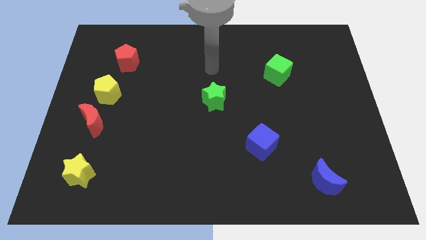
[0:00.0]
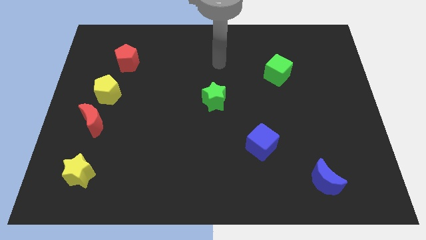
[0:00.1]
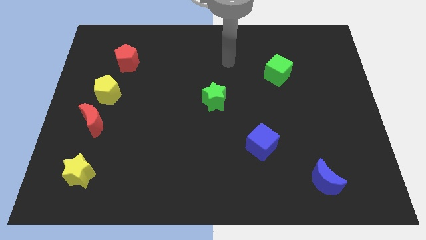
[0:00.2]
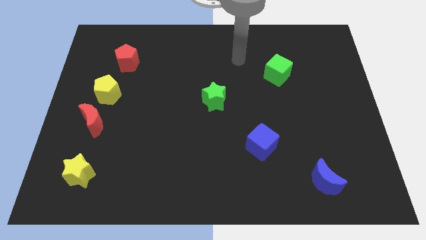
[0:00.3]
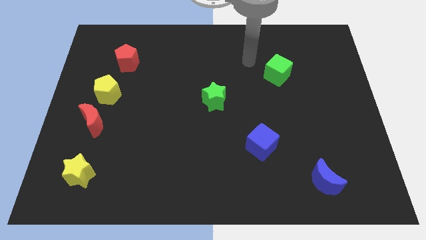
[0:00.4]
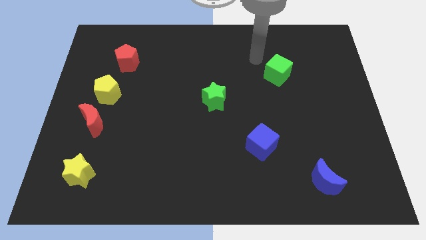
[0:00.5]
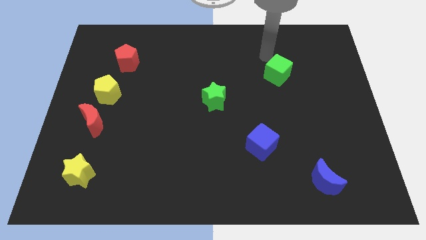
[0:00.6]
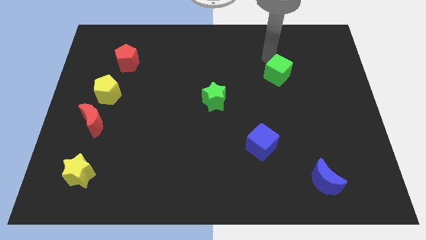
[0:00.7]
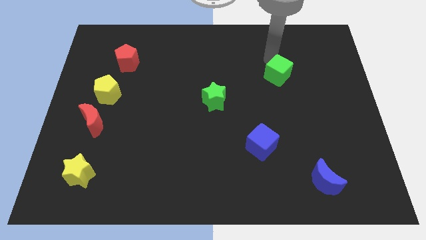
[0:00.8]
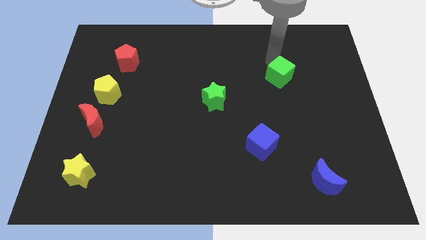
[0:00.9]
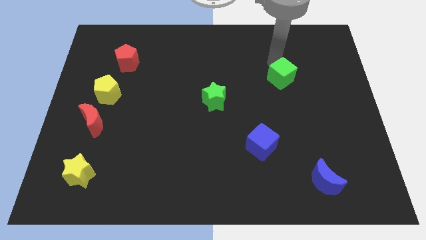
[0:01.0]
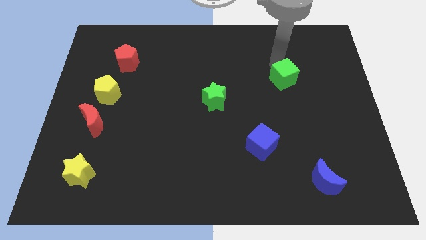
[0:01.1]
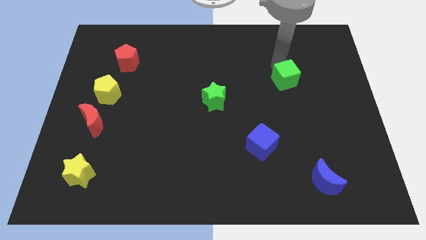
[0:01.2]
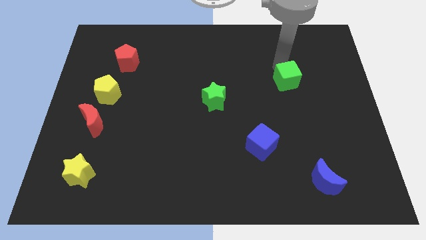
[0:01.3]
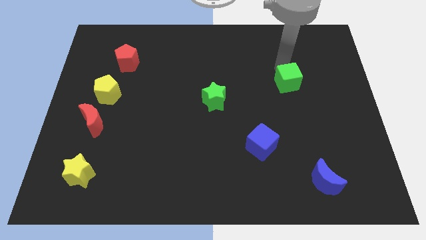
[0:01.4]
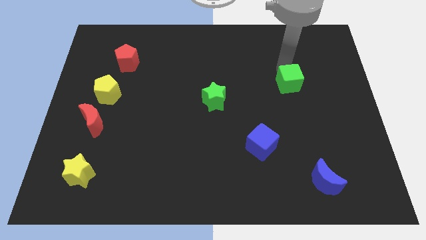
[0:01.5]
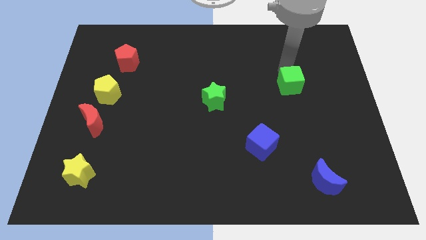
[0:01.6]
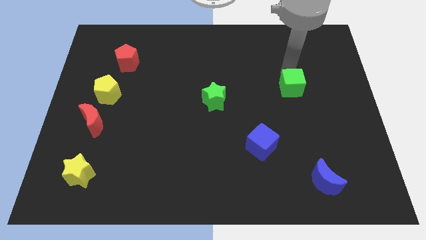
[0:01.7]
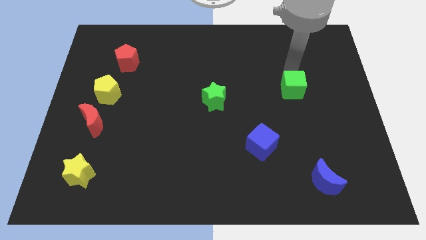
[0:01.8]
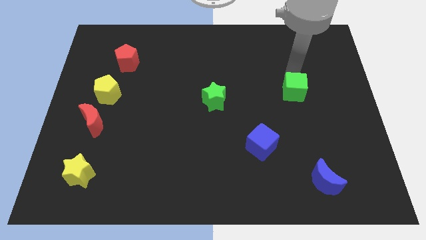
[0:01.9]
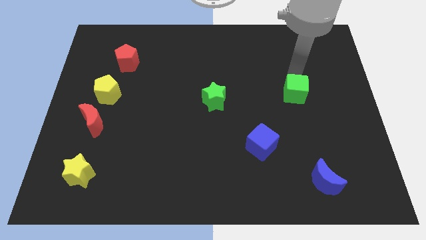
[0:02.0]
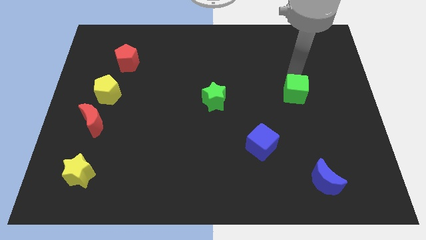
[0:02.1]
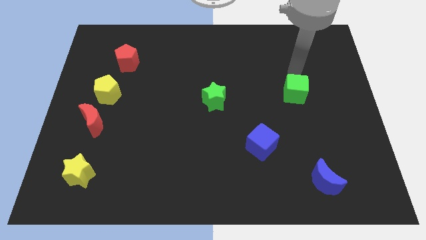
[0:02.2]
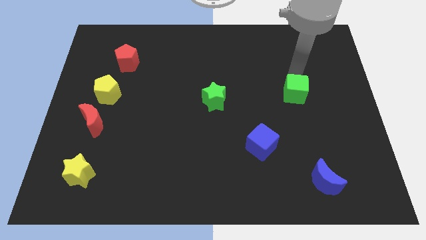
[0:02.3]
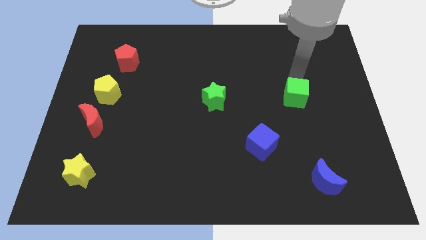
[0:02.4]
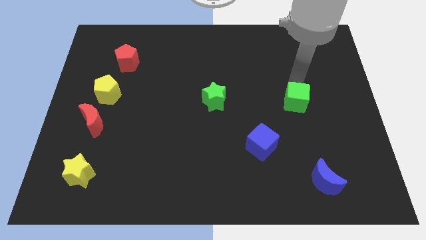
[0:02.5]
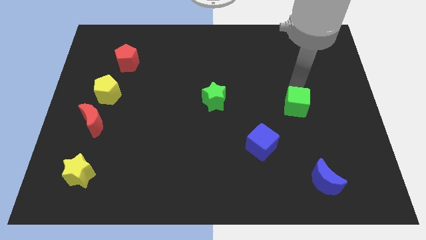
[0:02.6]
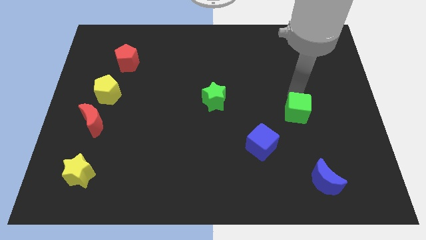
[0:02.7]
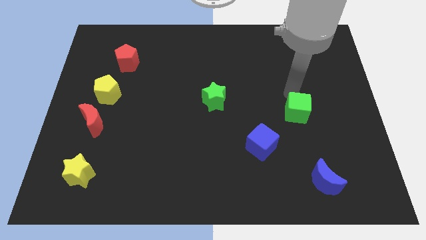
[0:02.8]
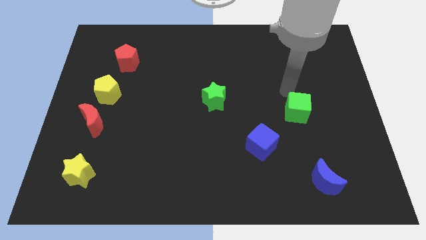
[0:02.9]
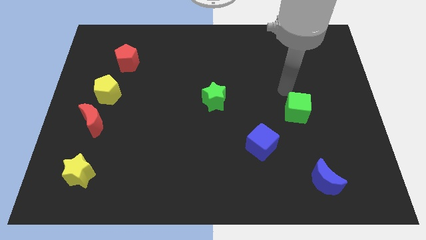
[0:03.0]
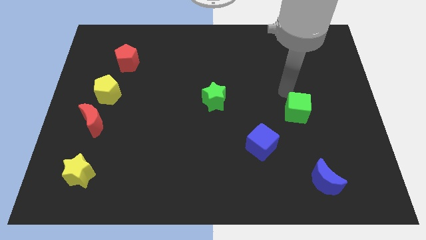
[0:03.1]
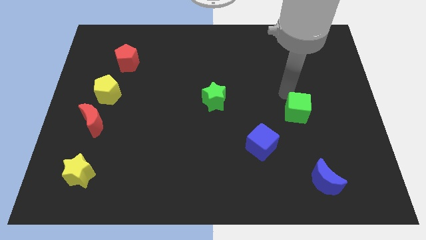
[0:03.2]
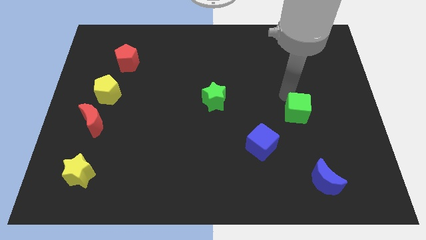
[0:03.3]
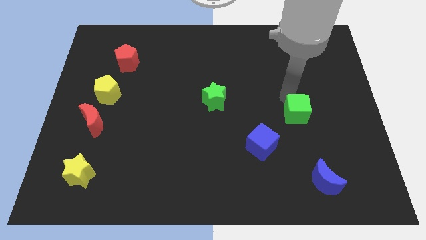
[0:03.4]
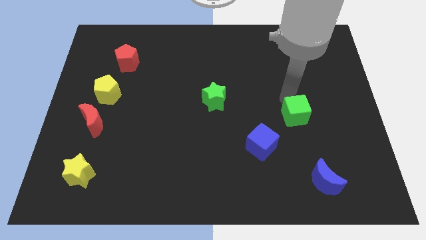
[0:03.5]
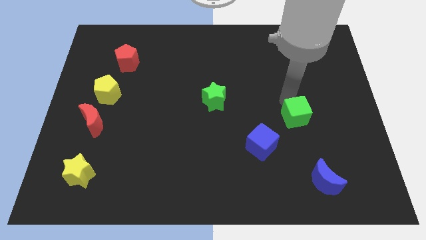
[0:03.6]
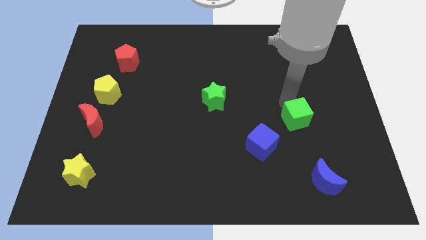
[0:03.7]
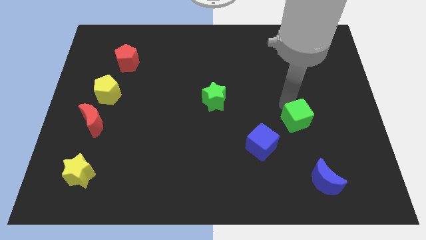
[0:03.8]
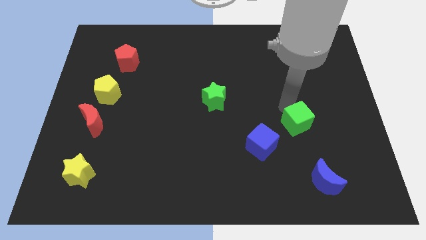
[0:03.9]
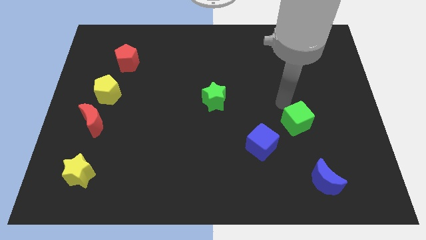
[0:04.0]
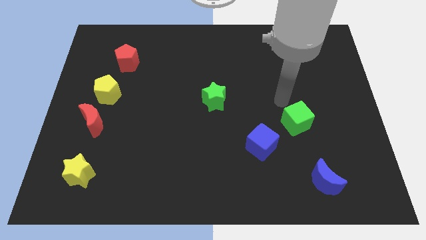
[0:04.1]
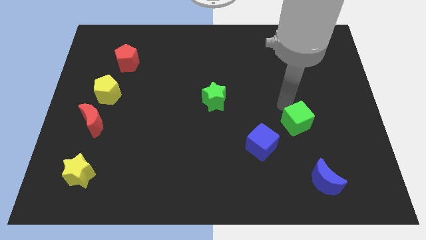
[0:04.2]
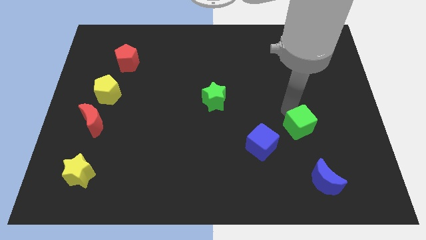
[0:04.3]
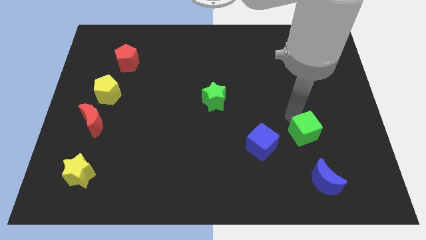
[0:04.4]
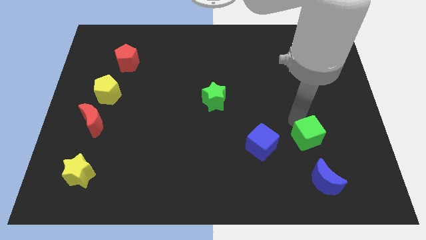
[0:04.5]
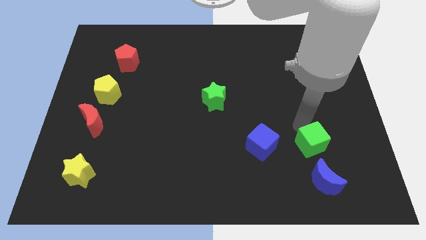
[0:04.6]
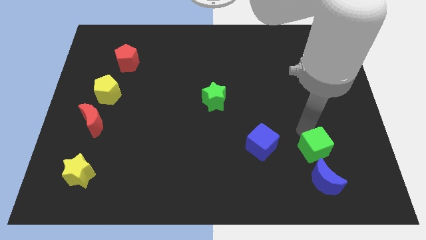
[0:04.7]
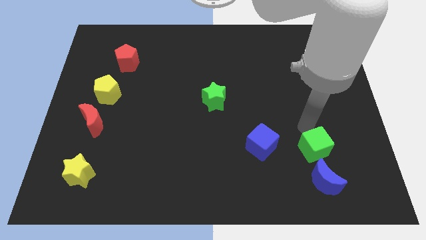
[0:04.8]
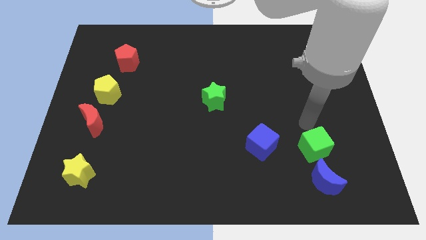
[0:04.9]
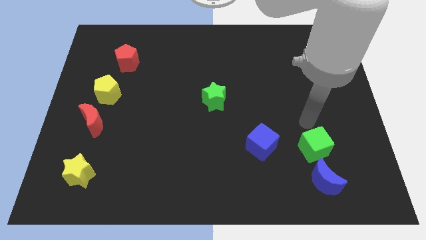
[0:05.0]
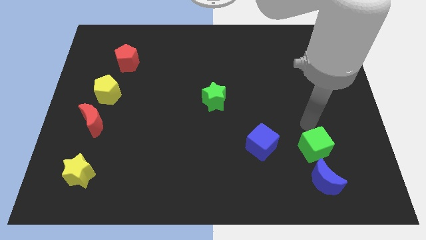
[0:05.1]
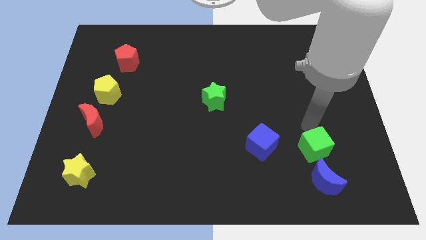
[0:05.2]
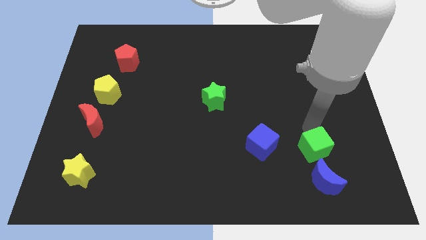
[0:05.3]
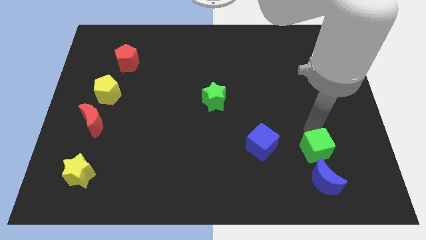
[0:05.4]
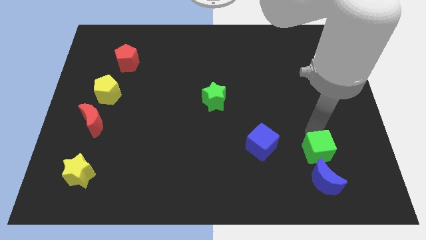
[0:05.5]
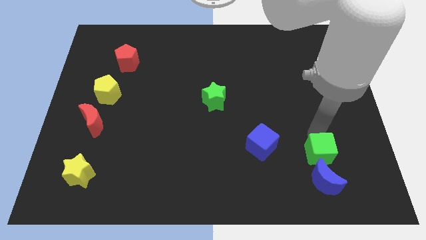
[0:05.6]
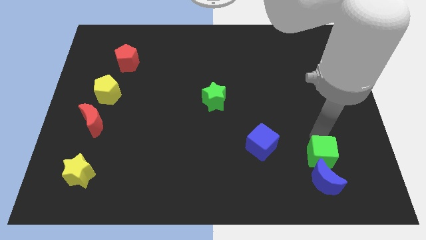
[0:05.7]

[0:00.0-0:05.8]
move the green cube to the blue moon
